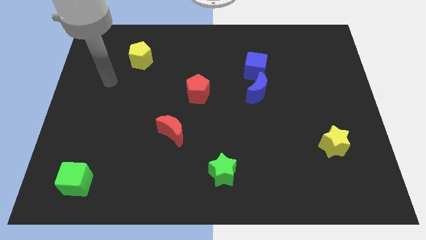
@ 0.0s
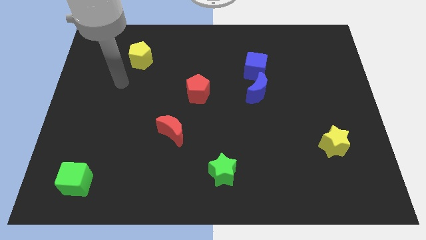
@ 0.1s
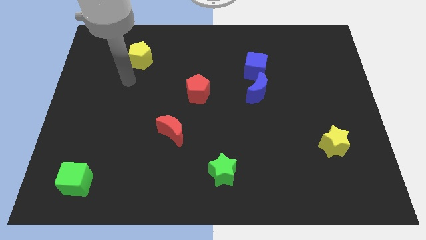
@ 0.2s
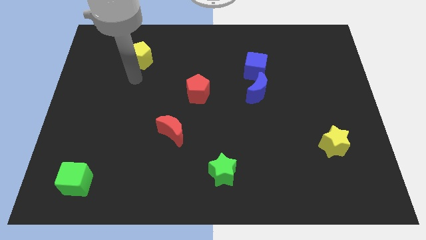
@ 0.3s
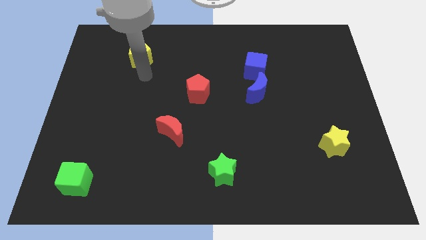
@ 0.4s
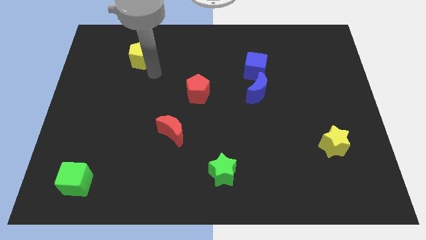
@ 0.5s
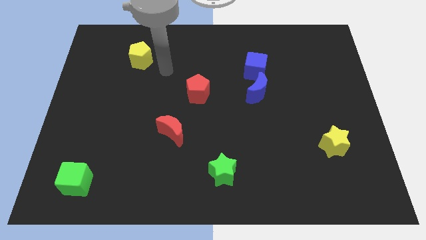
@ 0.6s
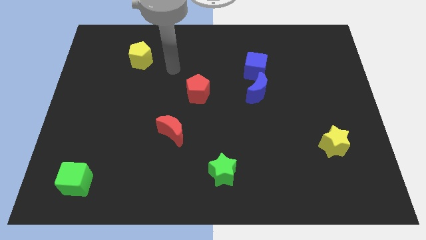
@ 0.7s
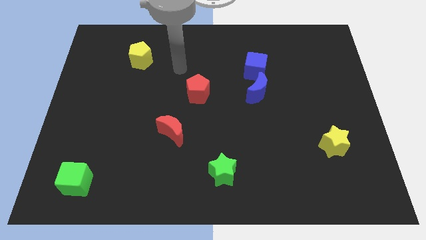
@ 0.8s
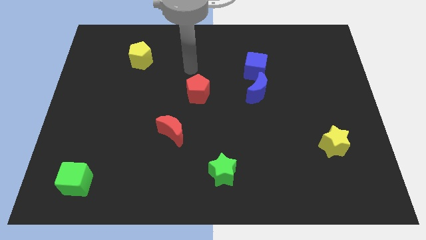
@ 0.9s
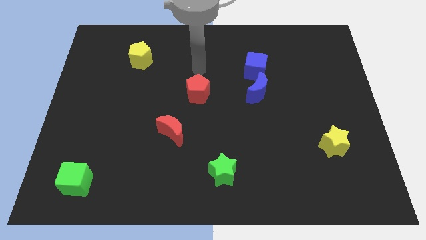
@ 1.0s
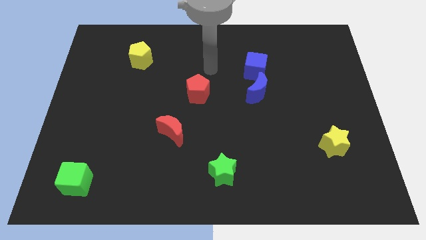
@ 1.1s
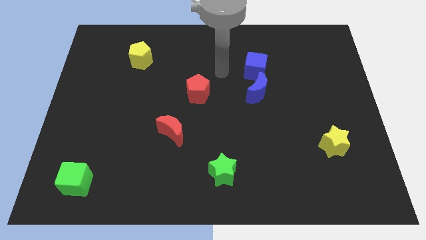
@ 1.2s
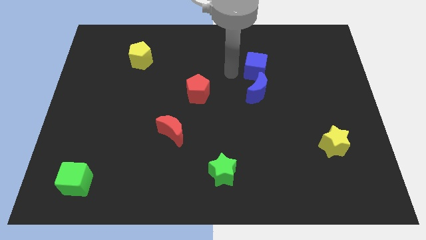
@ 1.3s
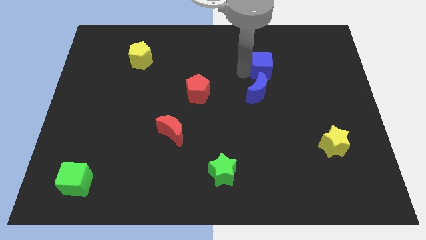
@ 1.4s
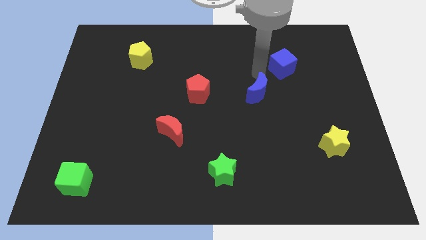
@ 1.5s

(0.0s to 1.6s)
separate the blue moon from the blue cube

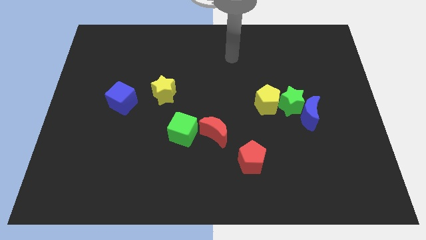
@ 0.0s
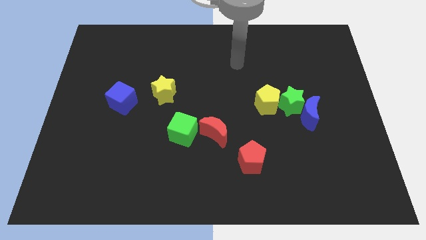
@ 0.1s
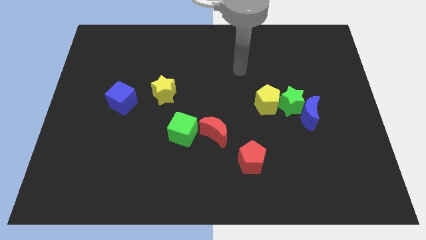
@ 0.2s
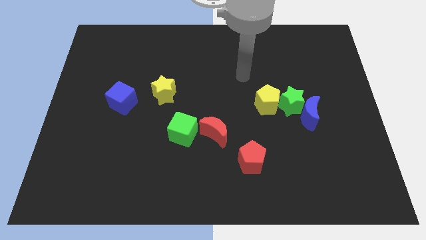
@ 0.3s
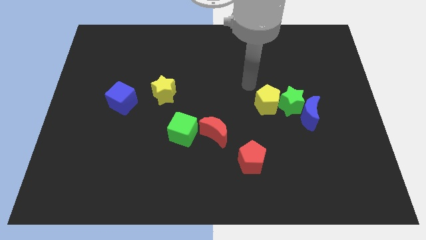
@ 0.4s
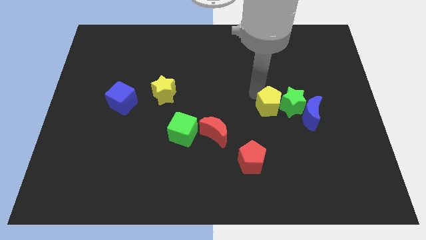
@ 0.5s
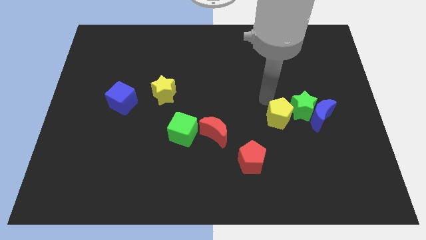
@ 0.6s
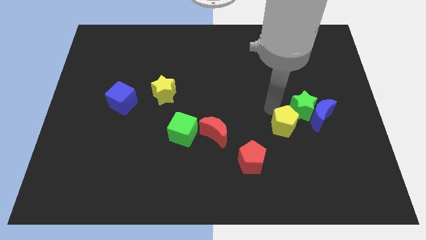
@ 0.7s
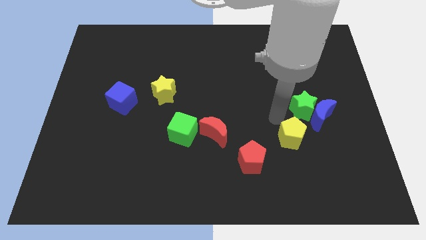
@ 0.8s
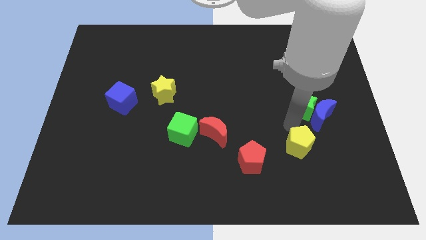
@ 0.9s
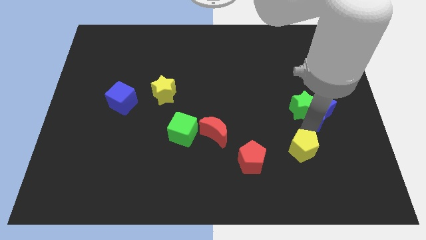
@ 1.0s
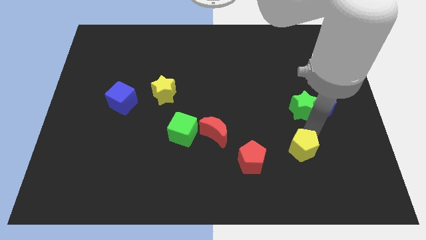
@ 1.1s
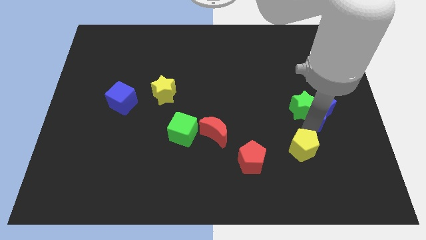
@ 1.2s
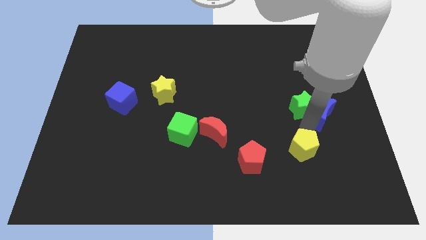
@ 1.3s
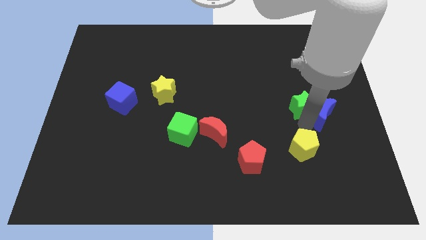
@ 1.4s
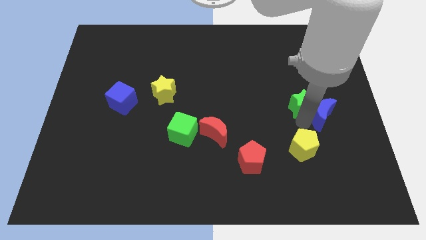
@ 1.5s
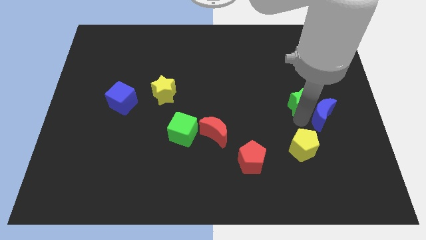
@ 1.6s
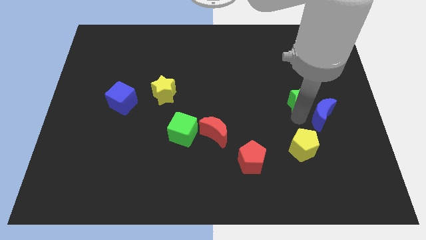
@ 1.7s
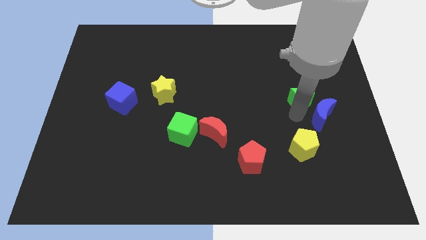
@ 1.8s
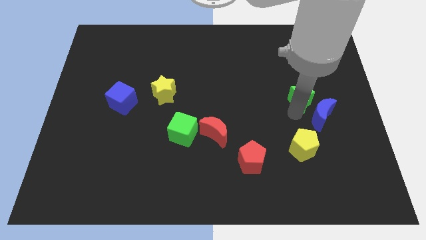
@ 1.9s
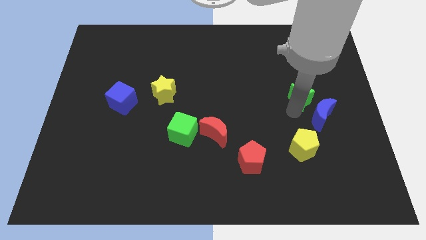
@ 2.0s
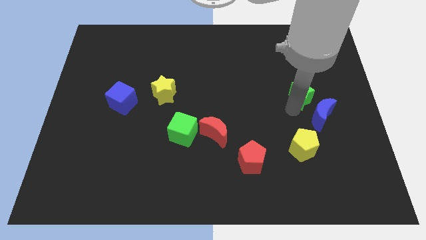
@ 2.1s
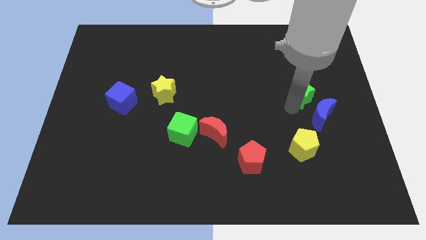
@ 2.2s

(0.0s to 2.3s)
pull the green star apart from the blue moon and yellow pentagon

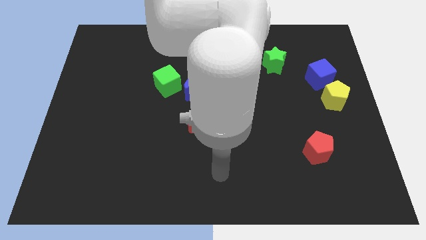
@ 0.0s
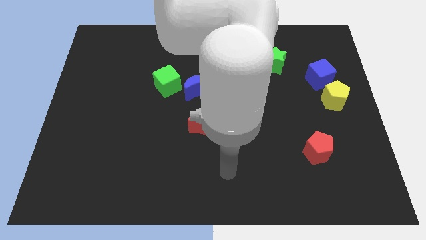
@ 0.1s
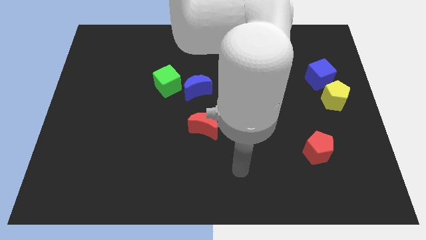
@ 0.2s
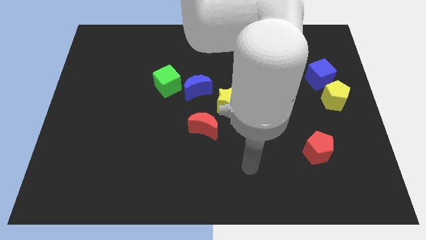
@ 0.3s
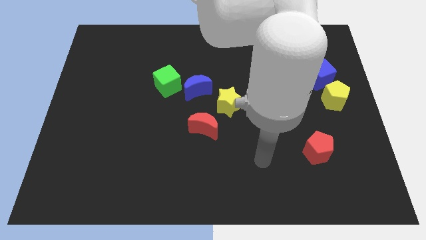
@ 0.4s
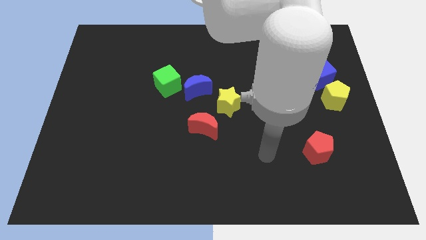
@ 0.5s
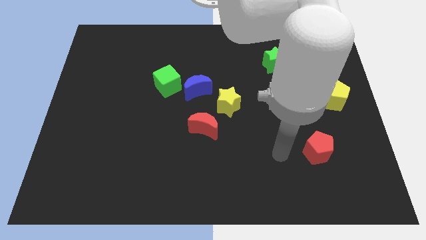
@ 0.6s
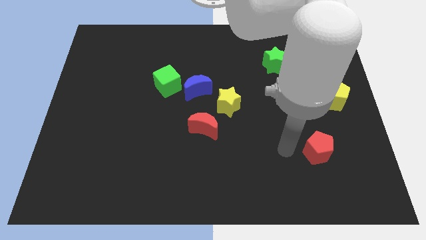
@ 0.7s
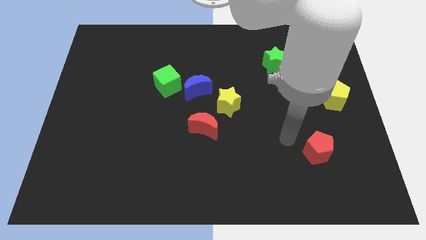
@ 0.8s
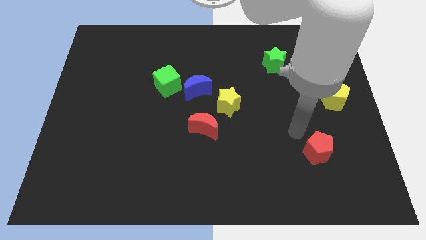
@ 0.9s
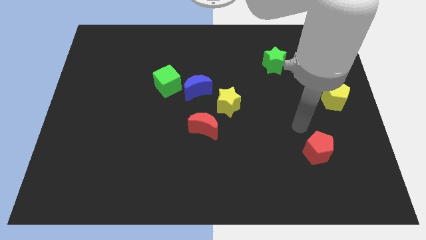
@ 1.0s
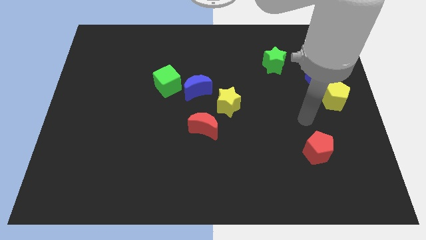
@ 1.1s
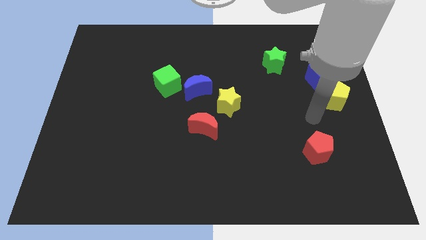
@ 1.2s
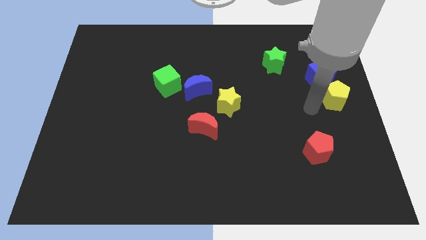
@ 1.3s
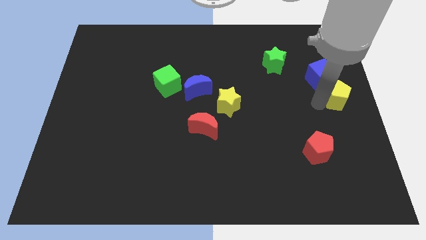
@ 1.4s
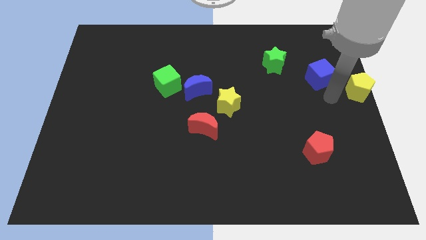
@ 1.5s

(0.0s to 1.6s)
move the blue cube away from the yellow pentagon

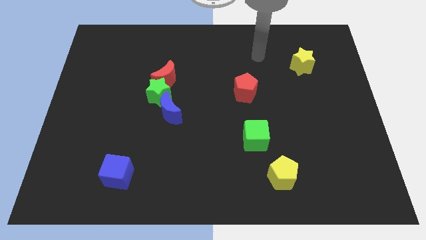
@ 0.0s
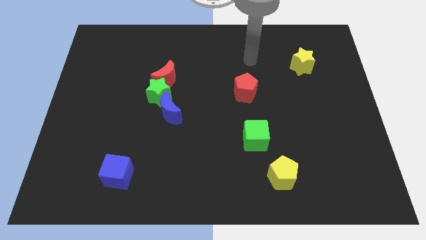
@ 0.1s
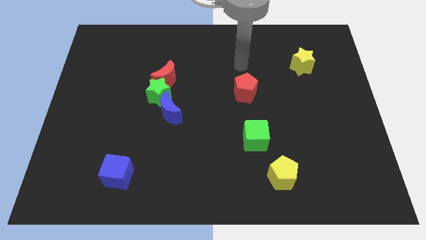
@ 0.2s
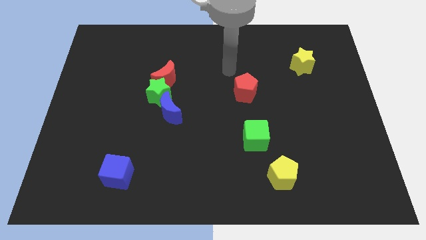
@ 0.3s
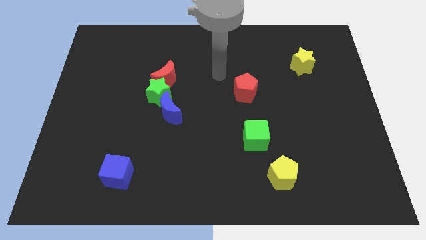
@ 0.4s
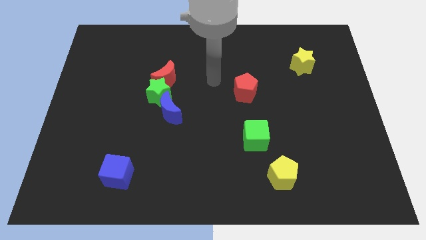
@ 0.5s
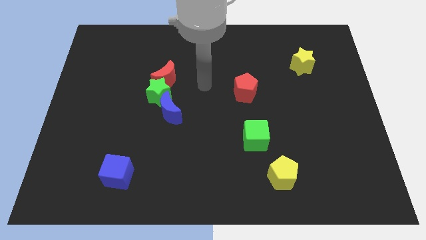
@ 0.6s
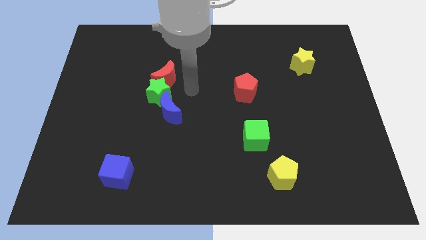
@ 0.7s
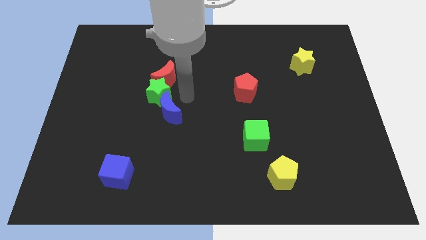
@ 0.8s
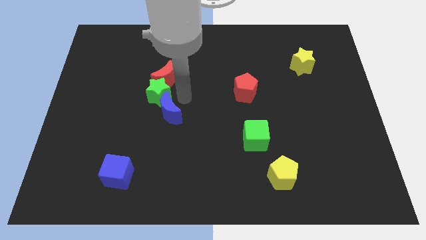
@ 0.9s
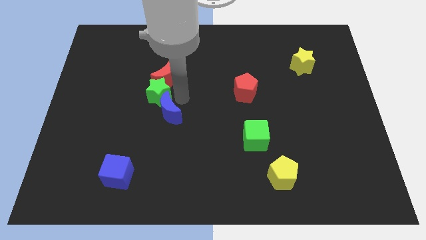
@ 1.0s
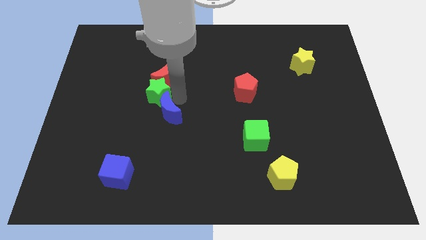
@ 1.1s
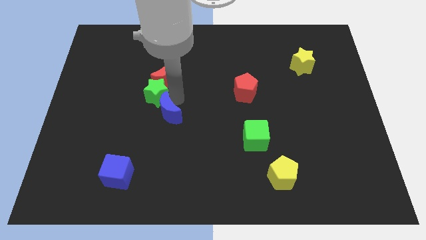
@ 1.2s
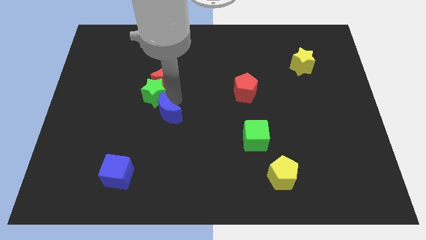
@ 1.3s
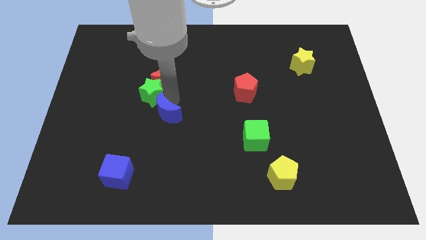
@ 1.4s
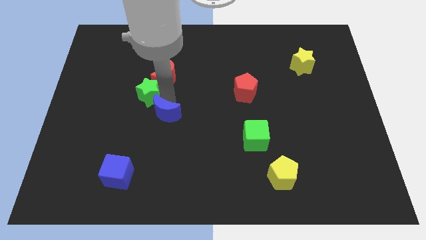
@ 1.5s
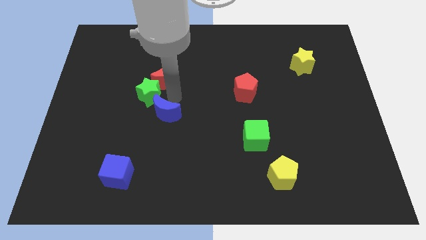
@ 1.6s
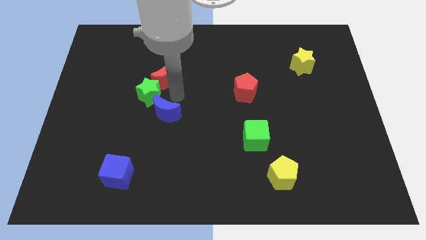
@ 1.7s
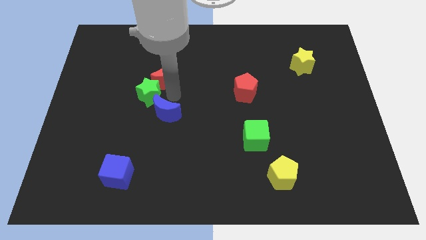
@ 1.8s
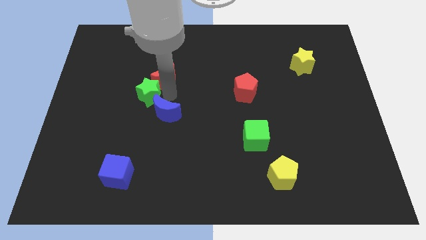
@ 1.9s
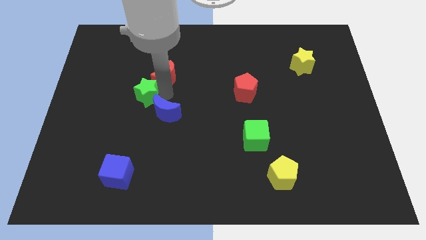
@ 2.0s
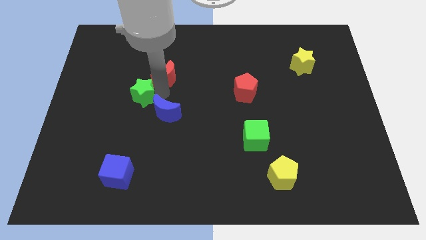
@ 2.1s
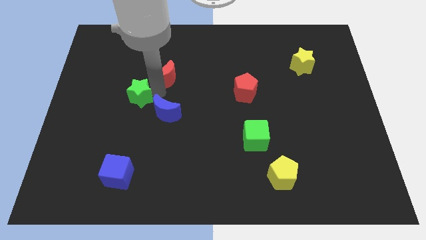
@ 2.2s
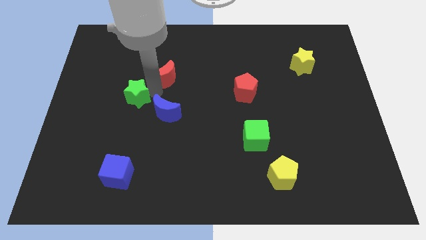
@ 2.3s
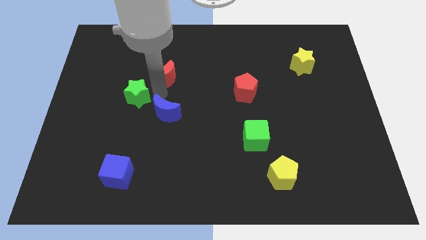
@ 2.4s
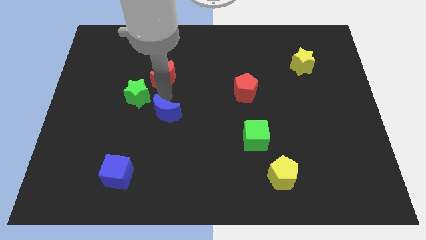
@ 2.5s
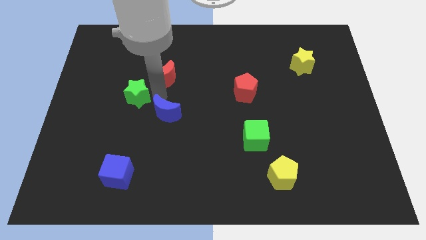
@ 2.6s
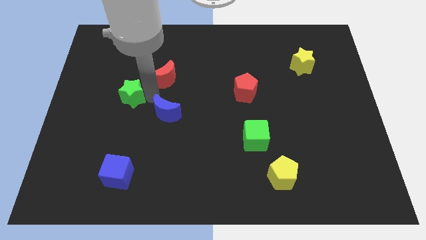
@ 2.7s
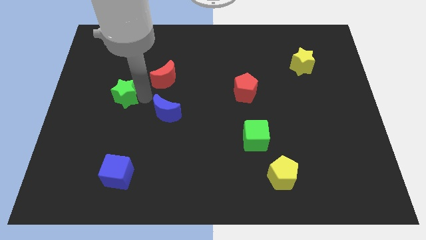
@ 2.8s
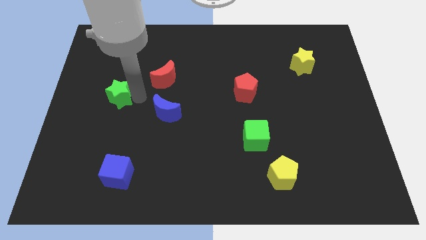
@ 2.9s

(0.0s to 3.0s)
move the green star away from the red moon and blue moon

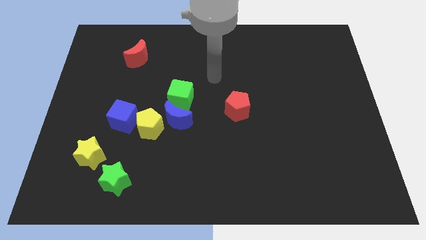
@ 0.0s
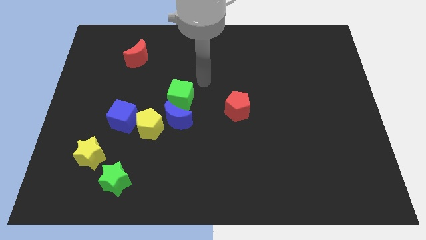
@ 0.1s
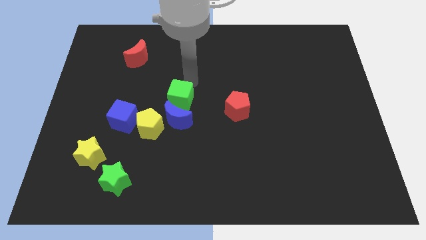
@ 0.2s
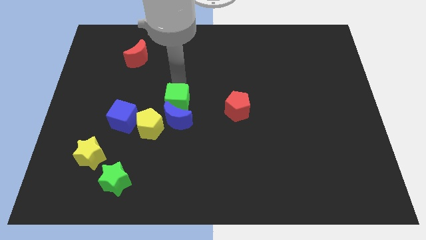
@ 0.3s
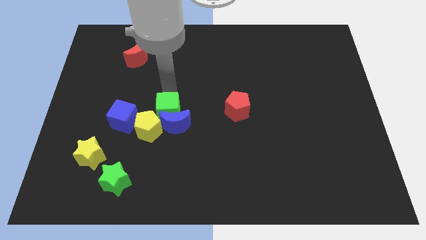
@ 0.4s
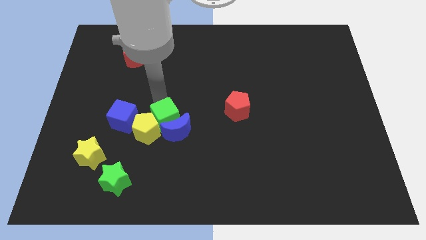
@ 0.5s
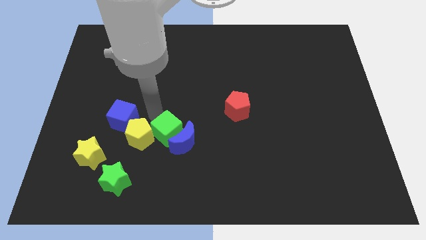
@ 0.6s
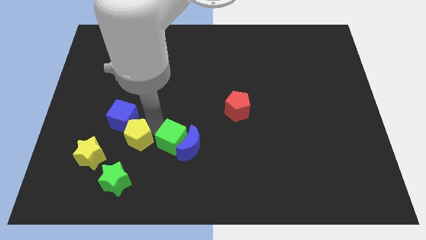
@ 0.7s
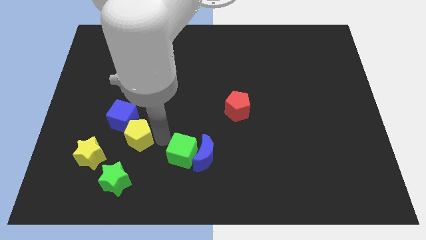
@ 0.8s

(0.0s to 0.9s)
move the blue moon away from the yellow pentagon and green cube
